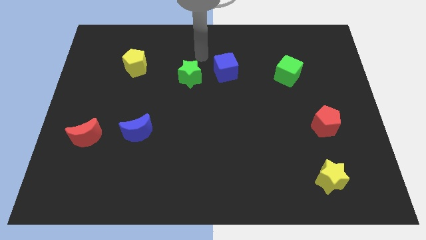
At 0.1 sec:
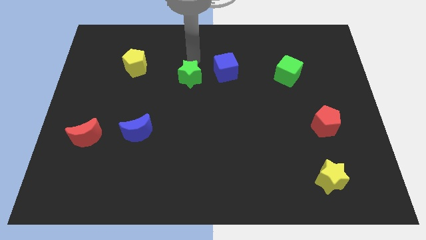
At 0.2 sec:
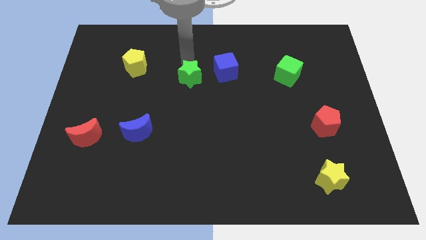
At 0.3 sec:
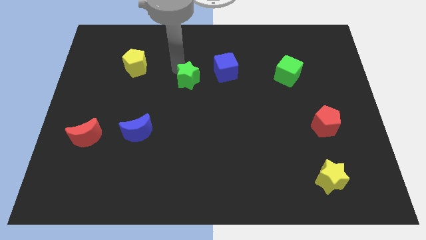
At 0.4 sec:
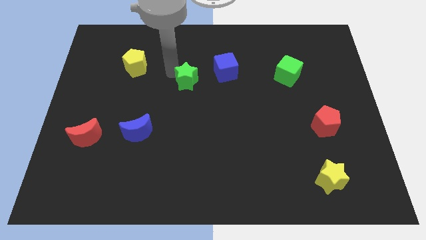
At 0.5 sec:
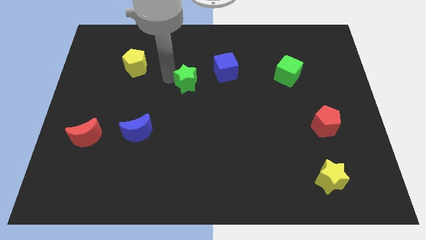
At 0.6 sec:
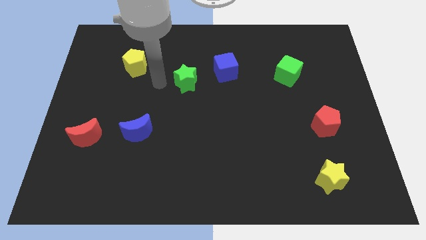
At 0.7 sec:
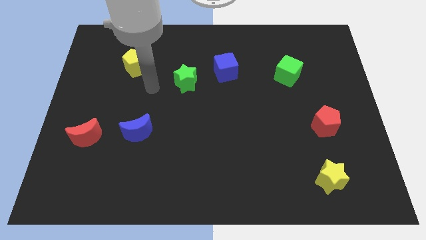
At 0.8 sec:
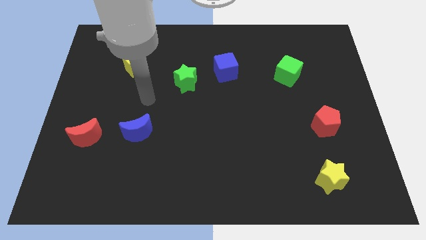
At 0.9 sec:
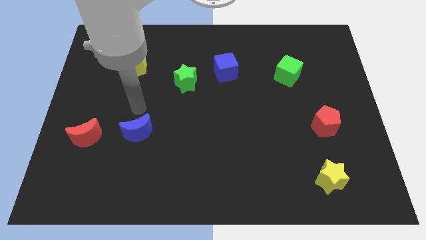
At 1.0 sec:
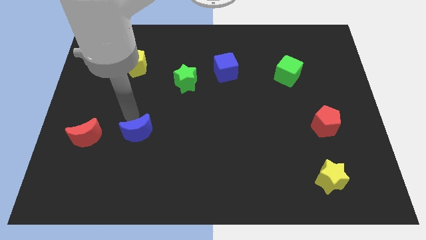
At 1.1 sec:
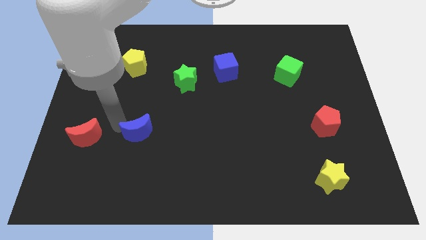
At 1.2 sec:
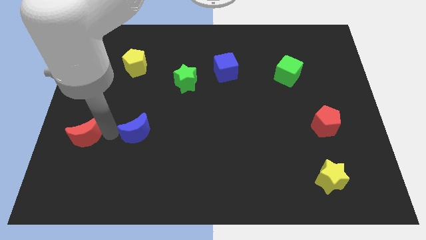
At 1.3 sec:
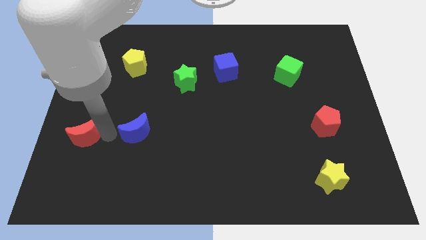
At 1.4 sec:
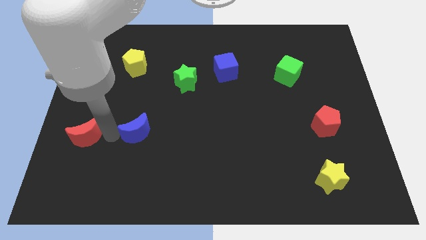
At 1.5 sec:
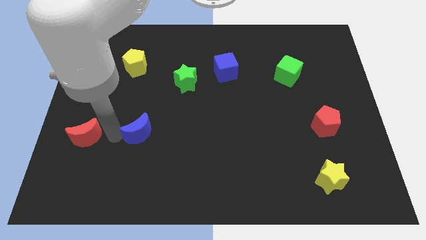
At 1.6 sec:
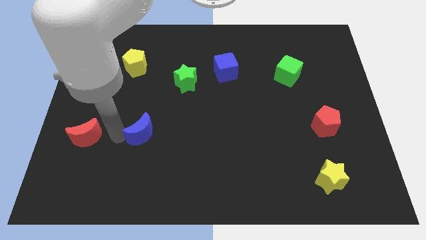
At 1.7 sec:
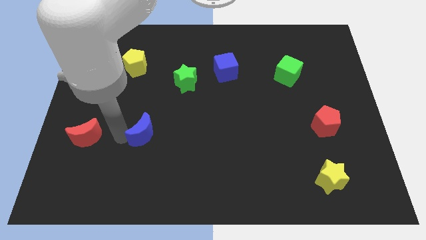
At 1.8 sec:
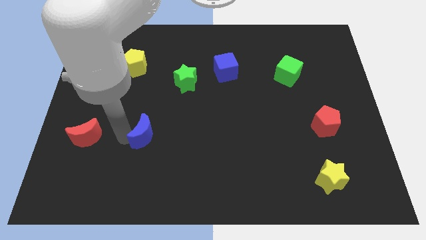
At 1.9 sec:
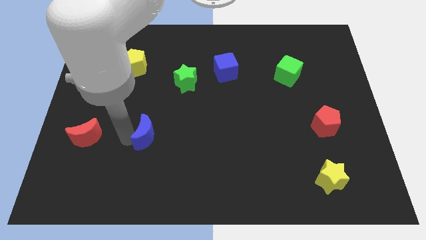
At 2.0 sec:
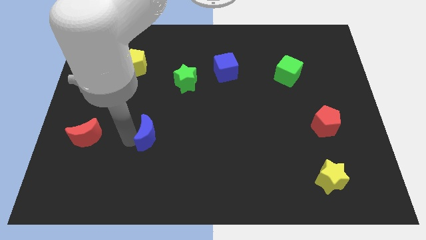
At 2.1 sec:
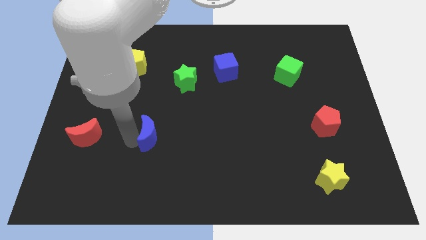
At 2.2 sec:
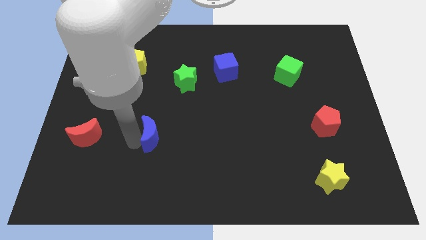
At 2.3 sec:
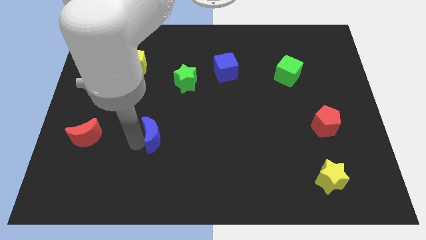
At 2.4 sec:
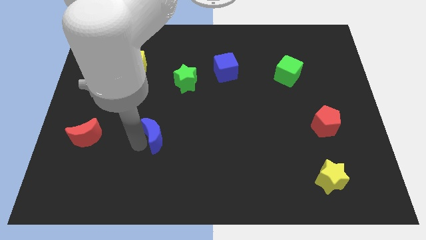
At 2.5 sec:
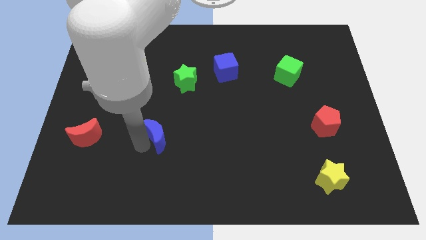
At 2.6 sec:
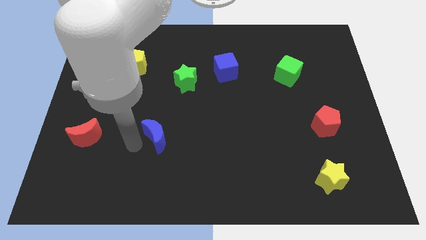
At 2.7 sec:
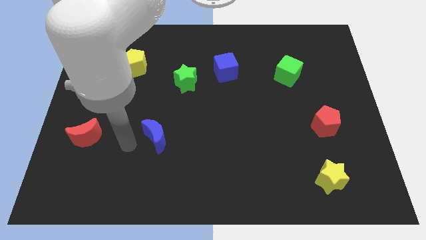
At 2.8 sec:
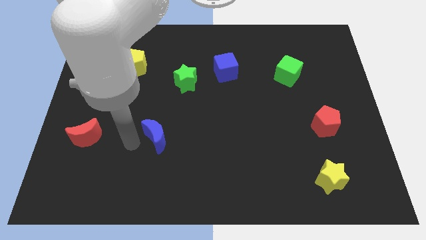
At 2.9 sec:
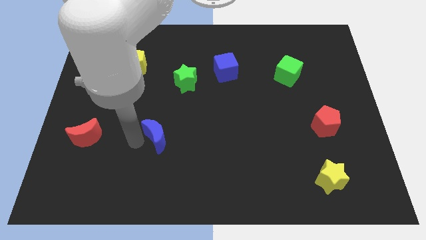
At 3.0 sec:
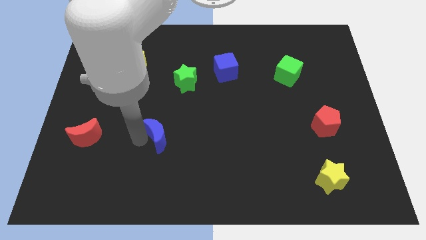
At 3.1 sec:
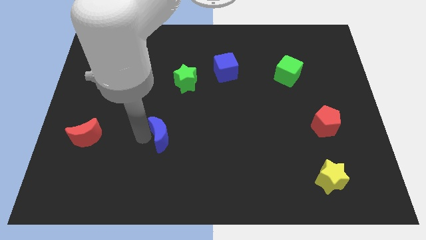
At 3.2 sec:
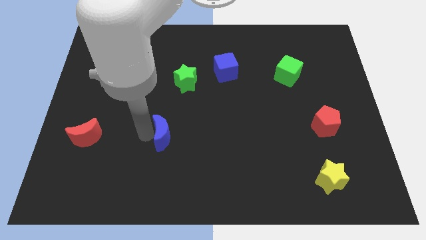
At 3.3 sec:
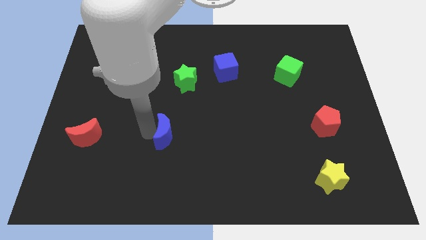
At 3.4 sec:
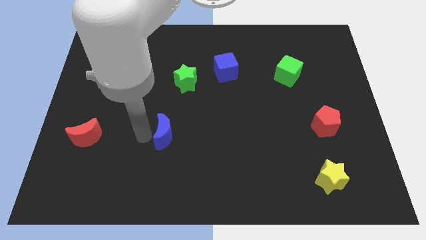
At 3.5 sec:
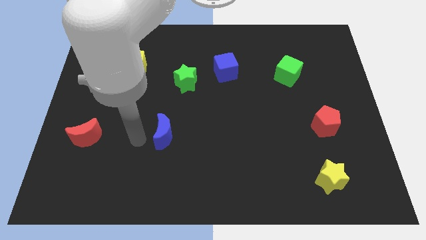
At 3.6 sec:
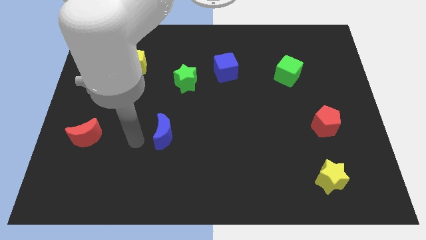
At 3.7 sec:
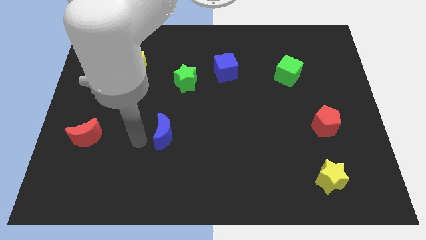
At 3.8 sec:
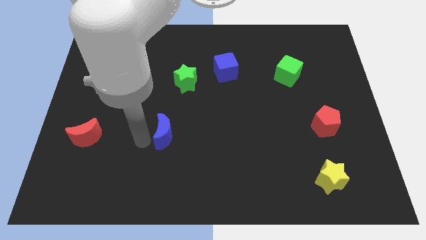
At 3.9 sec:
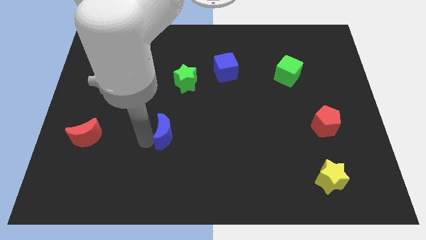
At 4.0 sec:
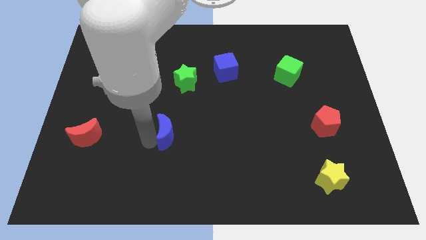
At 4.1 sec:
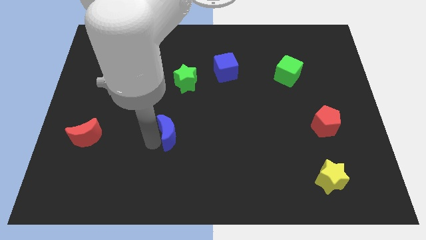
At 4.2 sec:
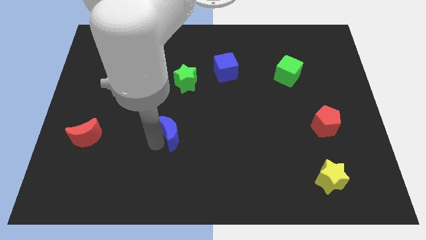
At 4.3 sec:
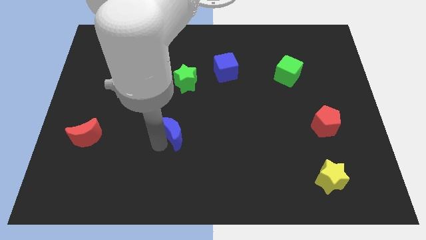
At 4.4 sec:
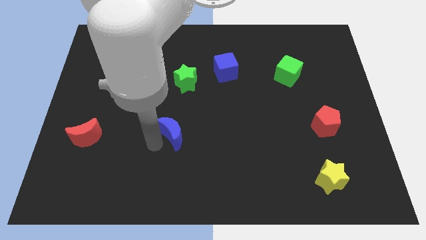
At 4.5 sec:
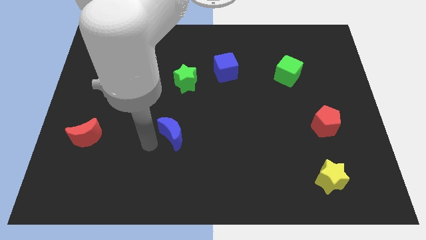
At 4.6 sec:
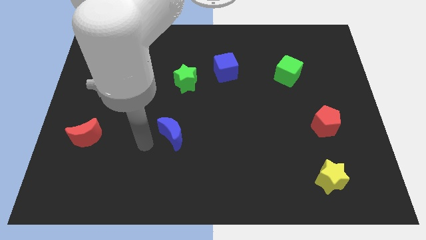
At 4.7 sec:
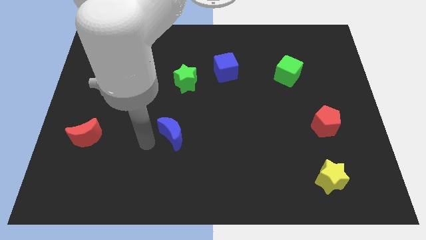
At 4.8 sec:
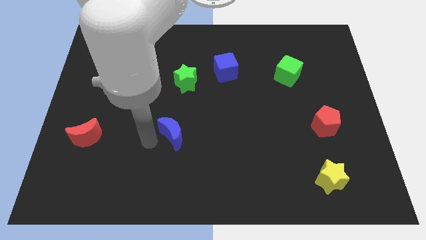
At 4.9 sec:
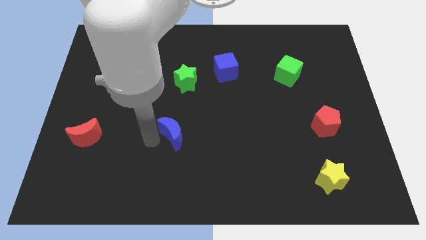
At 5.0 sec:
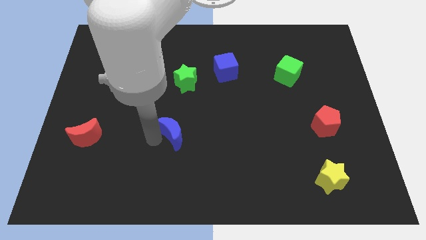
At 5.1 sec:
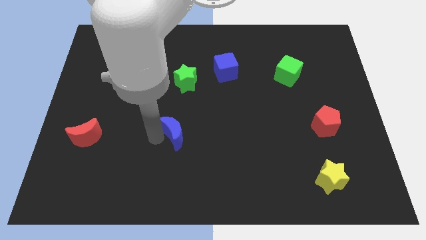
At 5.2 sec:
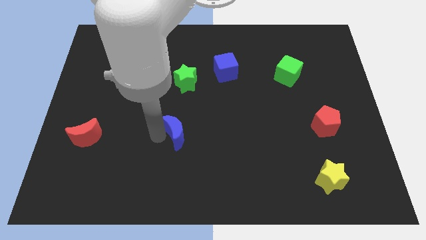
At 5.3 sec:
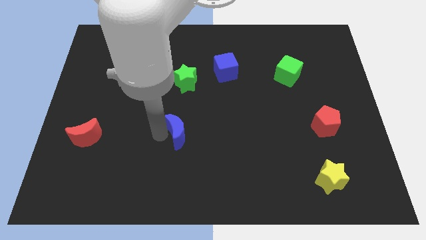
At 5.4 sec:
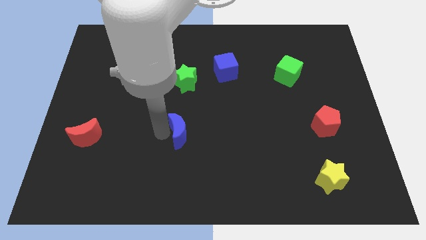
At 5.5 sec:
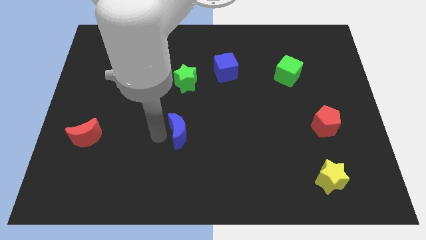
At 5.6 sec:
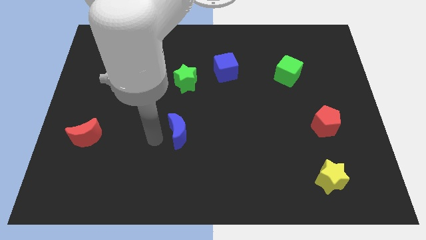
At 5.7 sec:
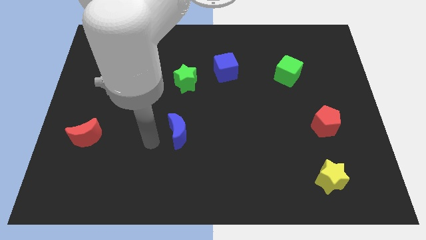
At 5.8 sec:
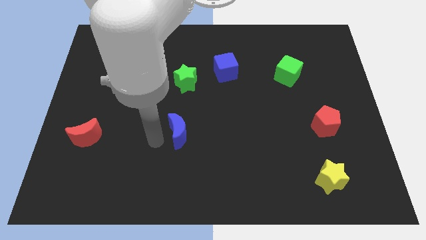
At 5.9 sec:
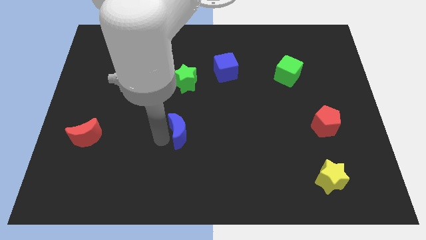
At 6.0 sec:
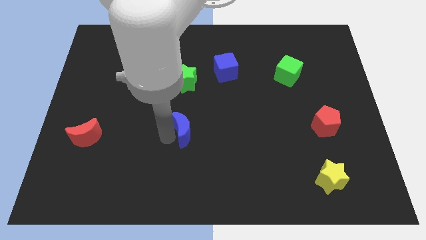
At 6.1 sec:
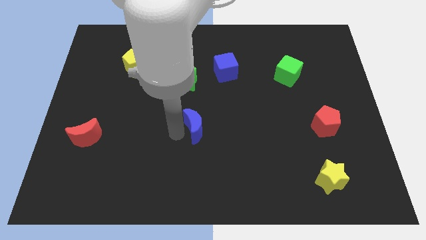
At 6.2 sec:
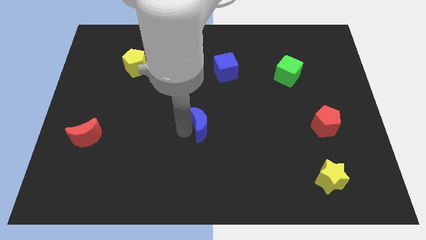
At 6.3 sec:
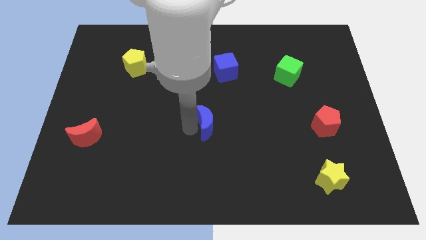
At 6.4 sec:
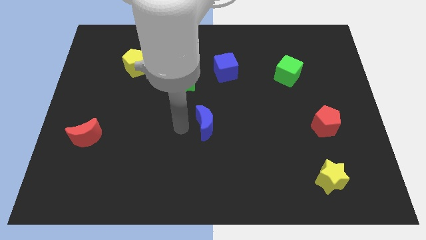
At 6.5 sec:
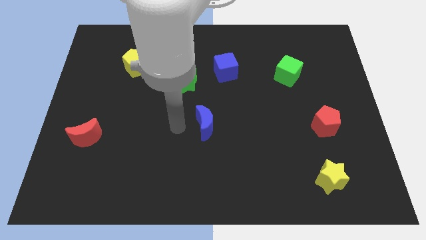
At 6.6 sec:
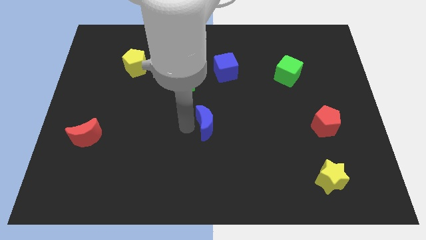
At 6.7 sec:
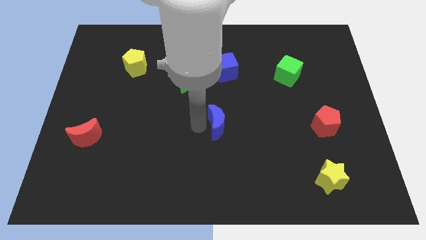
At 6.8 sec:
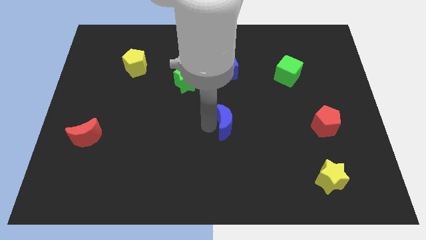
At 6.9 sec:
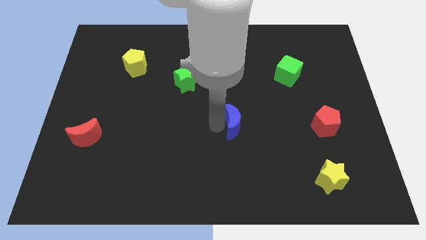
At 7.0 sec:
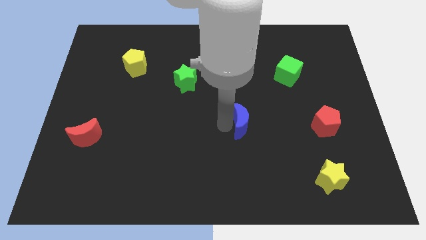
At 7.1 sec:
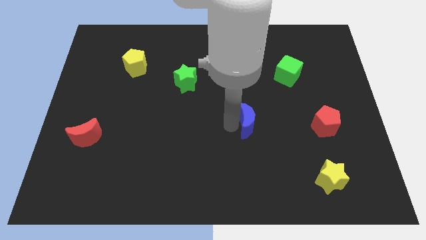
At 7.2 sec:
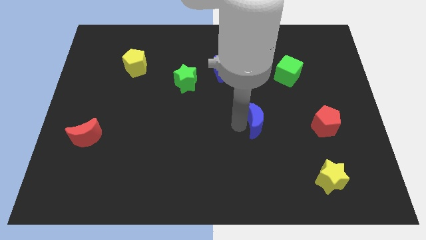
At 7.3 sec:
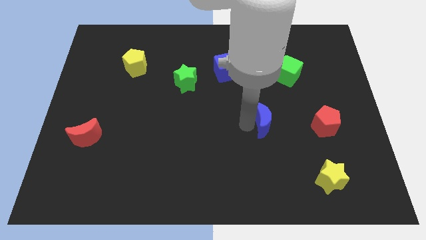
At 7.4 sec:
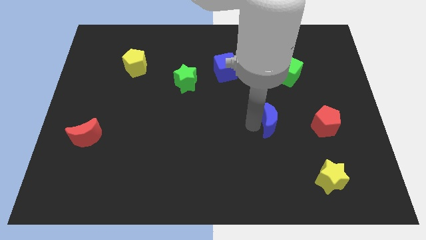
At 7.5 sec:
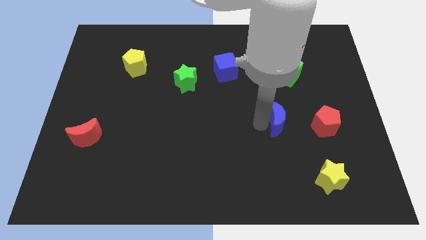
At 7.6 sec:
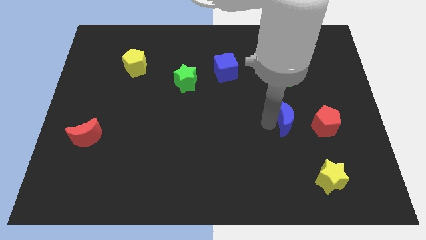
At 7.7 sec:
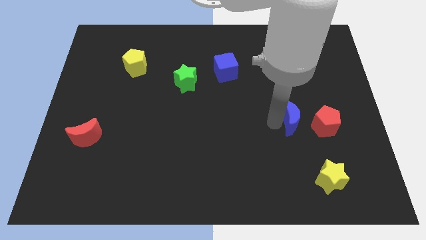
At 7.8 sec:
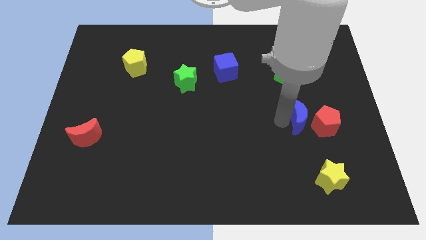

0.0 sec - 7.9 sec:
push the blue moon towards the red pentagon
